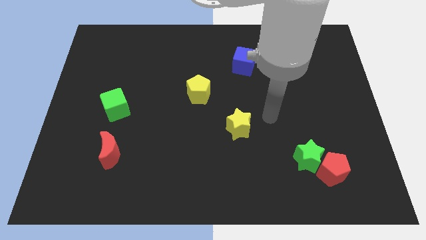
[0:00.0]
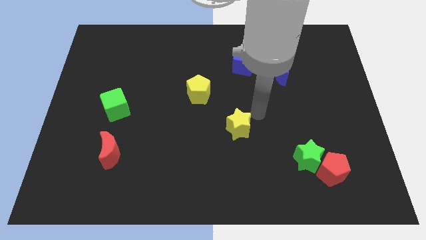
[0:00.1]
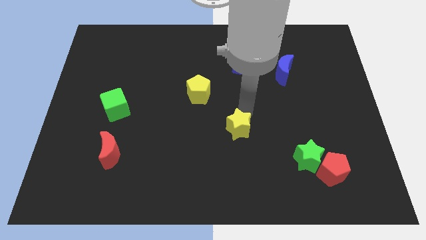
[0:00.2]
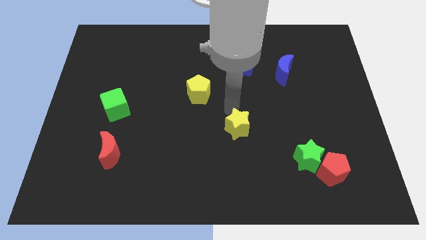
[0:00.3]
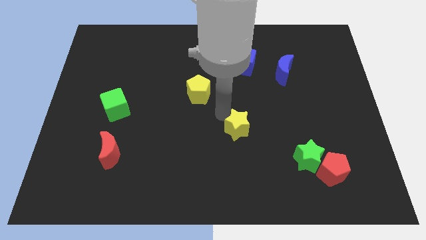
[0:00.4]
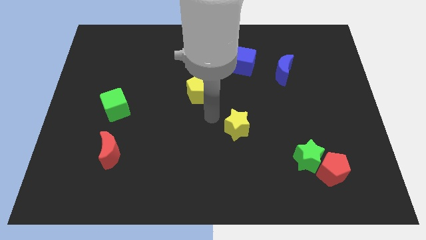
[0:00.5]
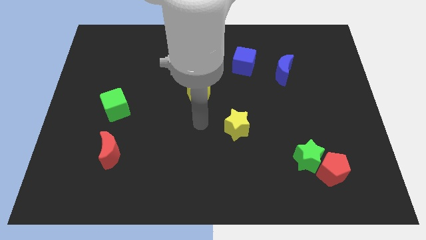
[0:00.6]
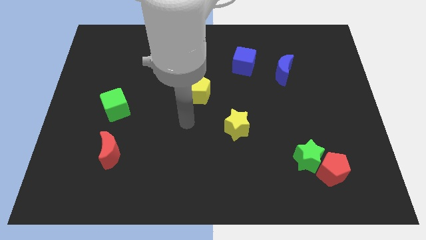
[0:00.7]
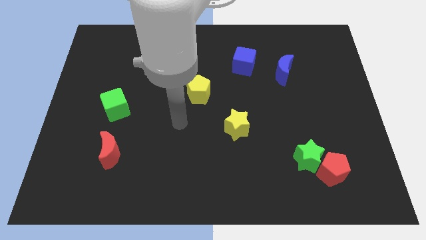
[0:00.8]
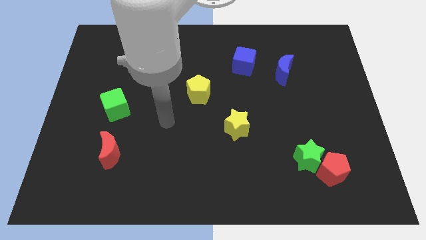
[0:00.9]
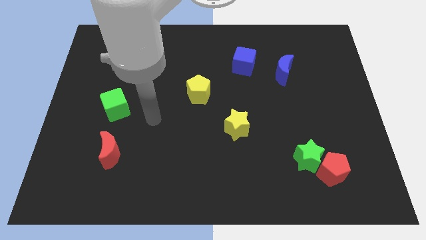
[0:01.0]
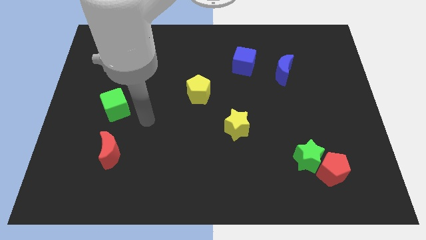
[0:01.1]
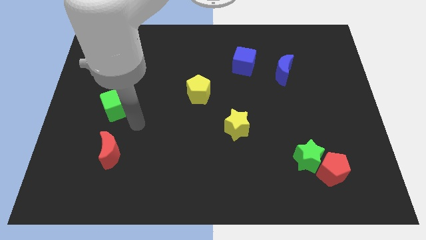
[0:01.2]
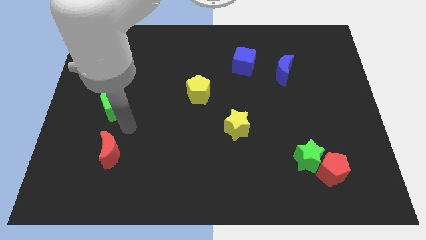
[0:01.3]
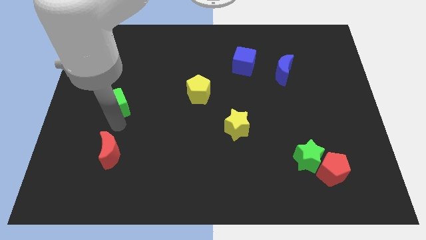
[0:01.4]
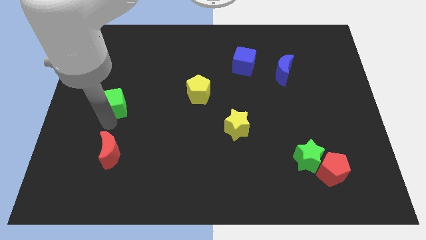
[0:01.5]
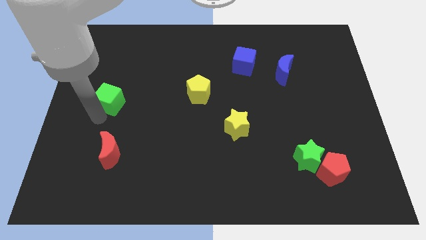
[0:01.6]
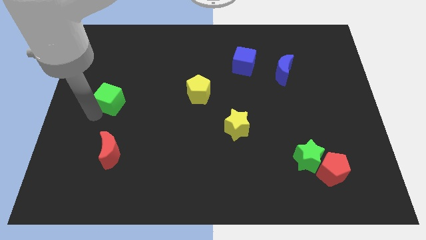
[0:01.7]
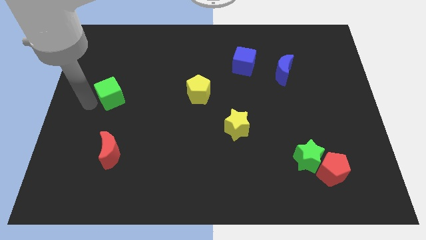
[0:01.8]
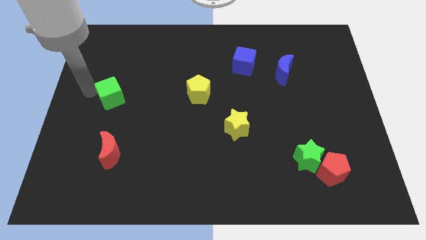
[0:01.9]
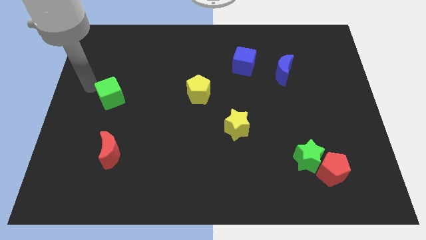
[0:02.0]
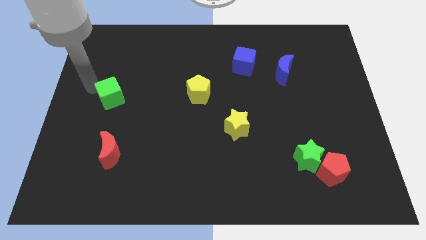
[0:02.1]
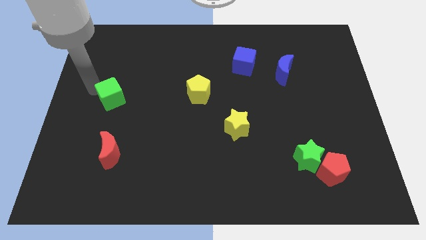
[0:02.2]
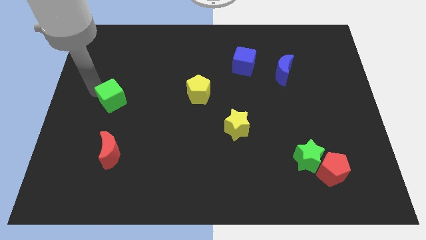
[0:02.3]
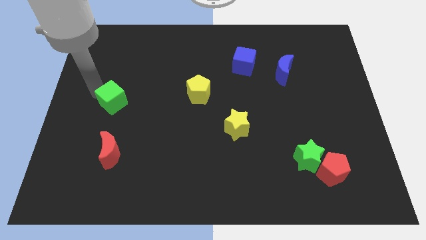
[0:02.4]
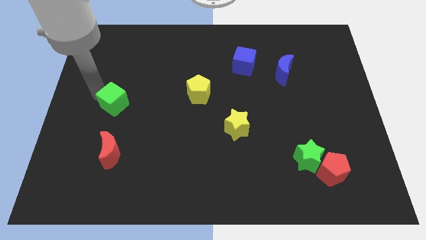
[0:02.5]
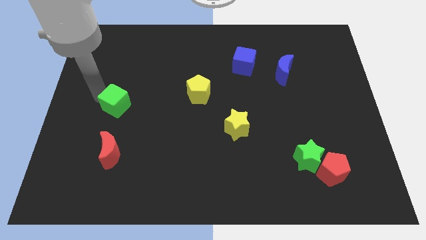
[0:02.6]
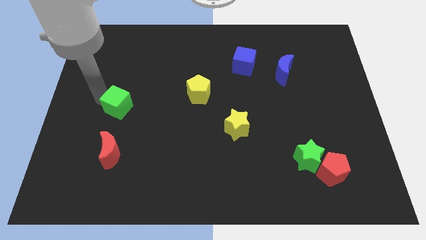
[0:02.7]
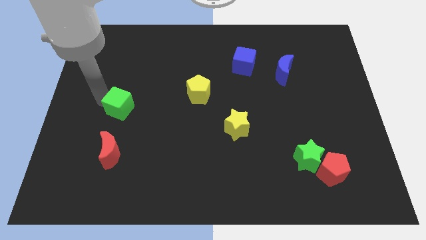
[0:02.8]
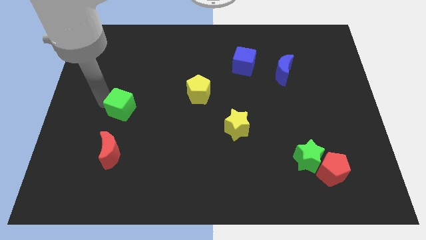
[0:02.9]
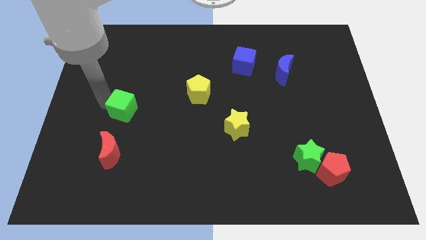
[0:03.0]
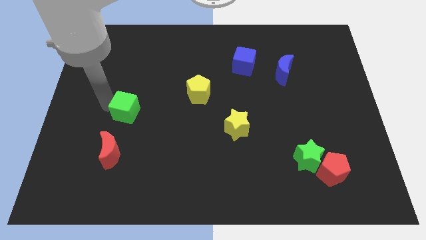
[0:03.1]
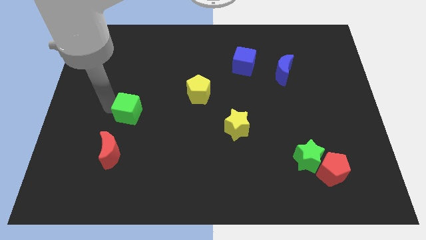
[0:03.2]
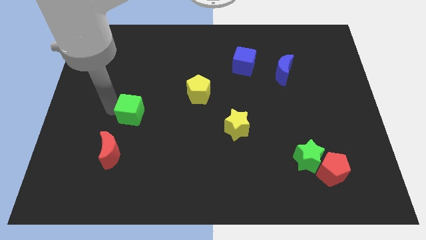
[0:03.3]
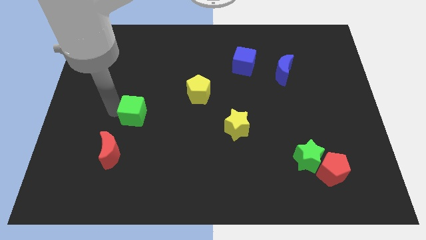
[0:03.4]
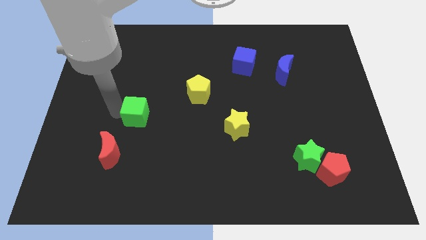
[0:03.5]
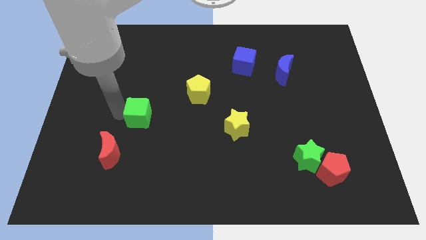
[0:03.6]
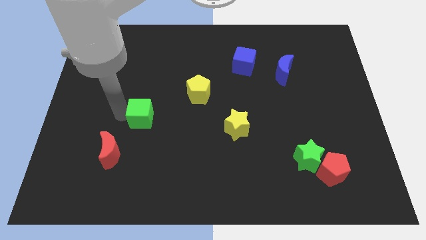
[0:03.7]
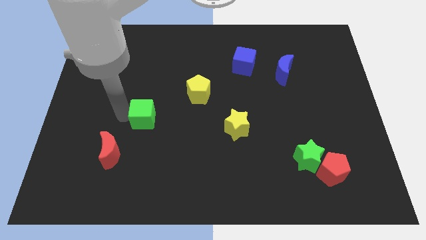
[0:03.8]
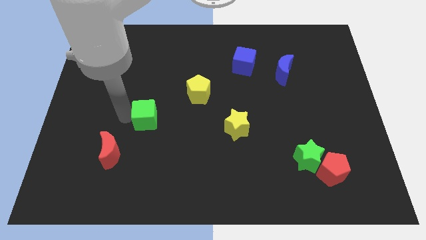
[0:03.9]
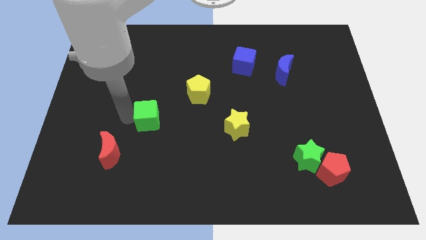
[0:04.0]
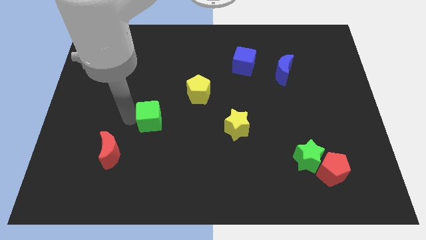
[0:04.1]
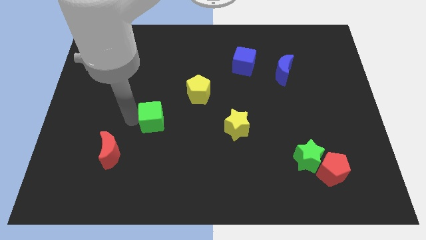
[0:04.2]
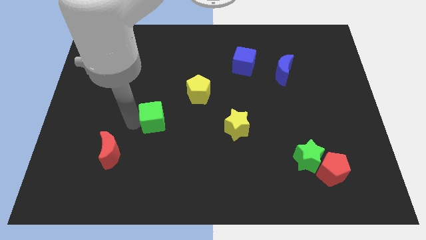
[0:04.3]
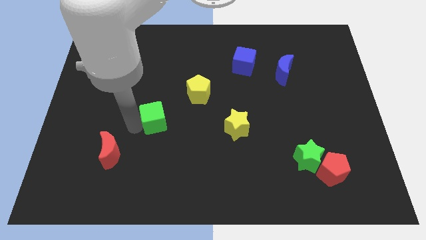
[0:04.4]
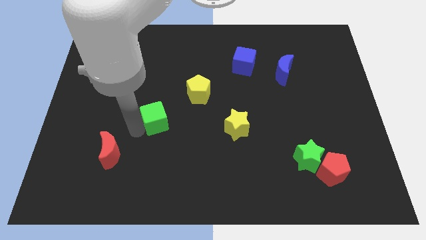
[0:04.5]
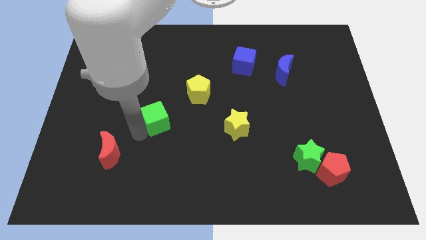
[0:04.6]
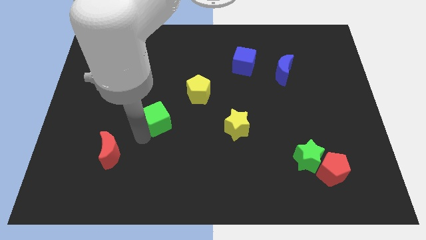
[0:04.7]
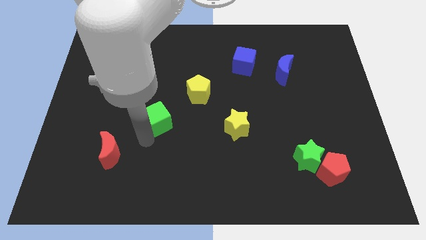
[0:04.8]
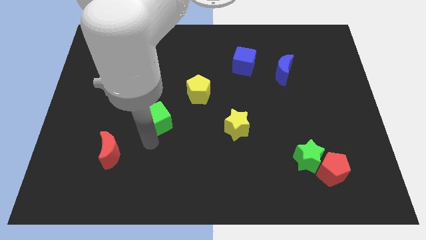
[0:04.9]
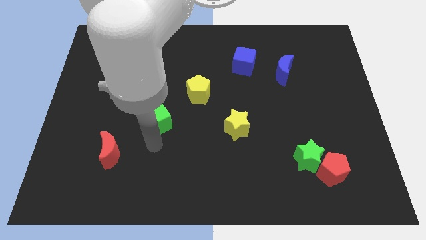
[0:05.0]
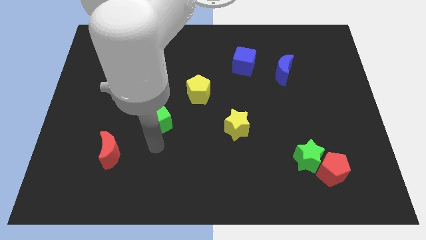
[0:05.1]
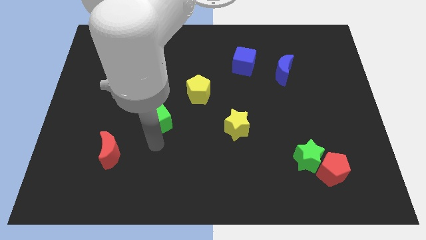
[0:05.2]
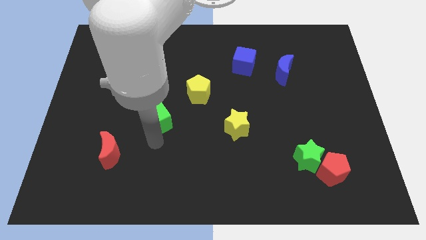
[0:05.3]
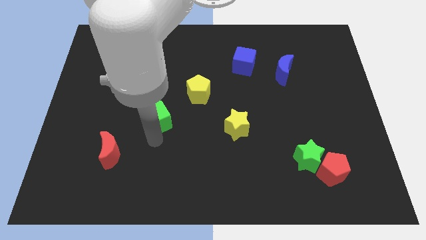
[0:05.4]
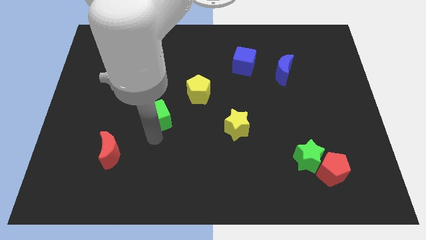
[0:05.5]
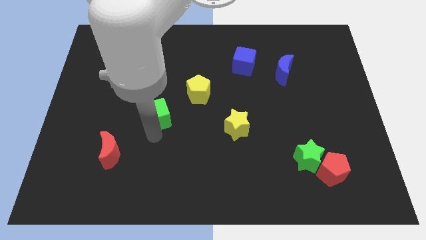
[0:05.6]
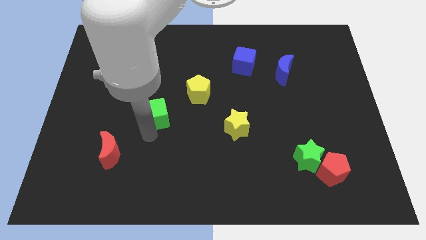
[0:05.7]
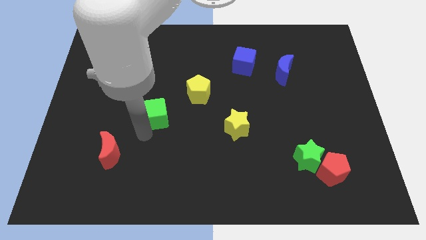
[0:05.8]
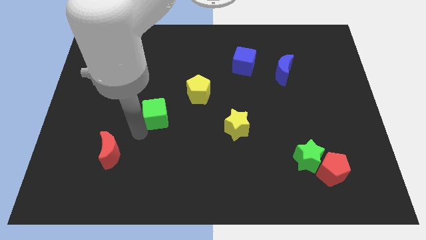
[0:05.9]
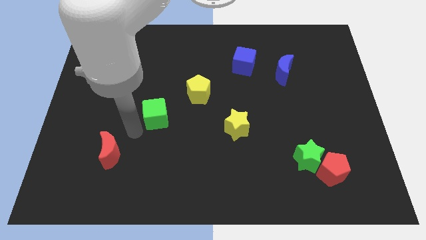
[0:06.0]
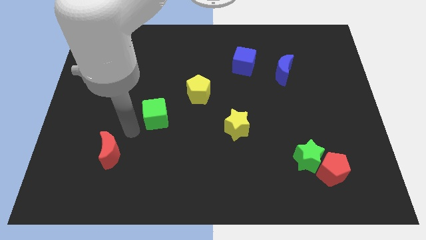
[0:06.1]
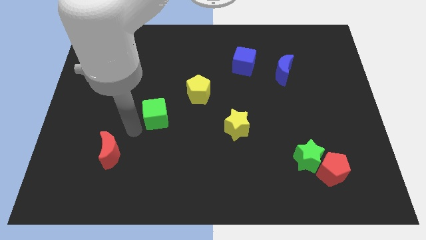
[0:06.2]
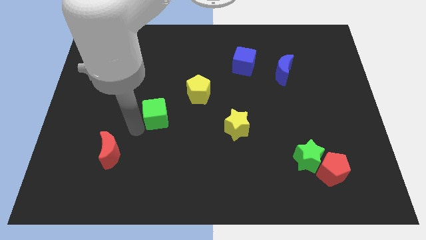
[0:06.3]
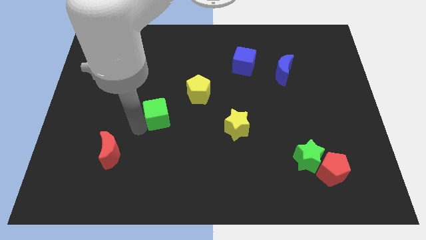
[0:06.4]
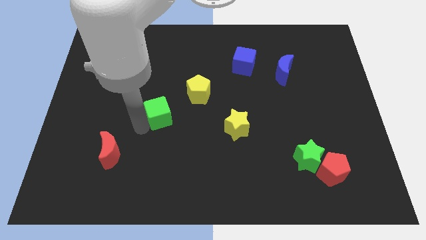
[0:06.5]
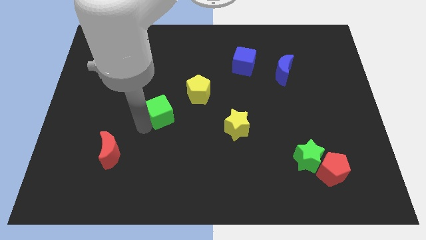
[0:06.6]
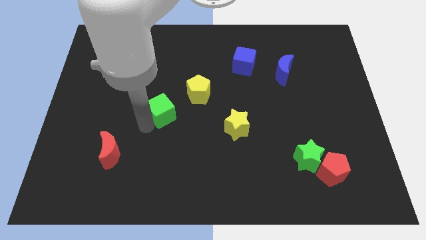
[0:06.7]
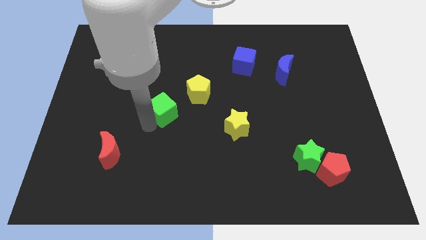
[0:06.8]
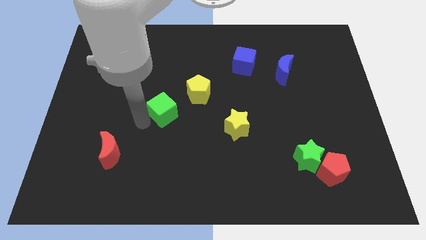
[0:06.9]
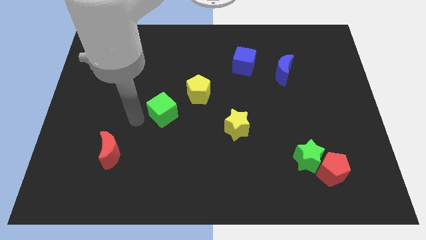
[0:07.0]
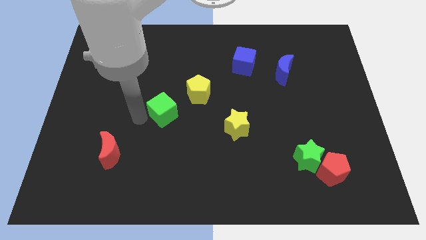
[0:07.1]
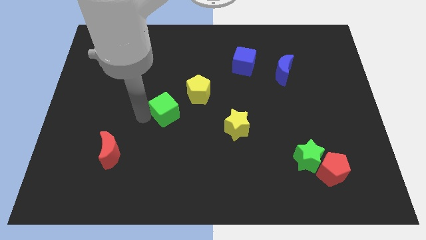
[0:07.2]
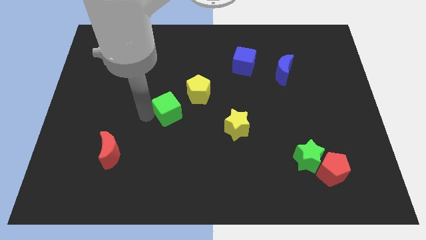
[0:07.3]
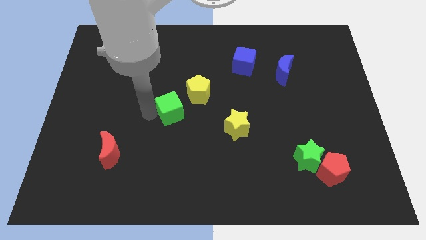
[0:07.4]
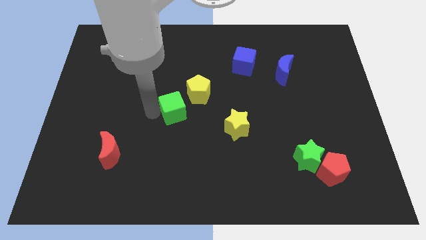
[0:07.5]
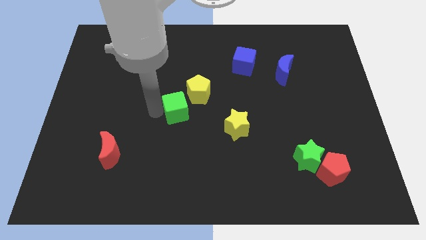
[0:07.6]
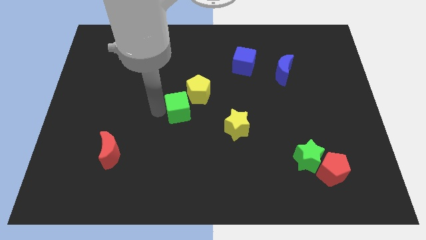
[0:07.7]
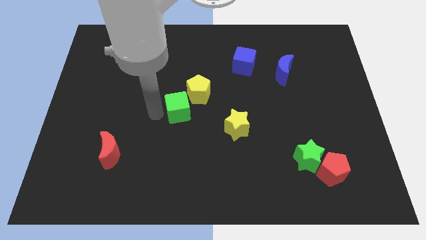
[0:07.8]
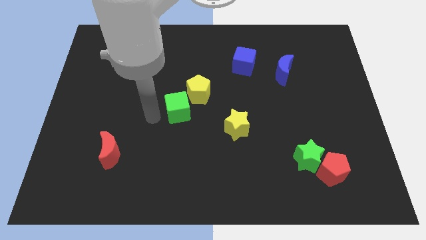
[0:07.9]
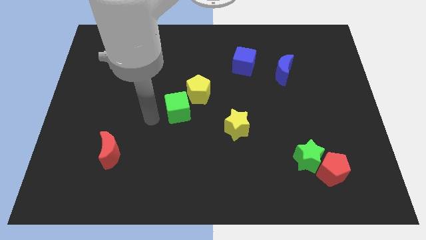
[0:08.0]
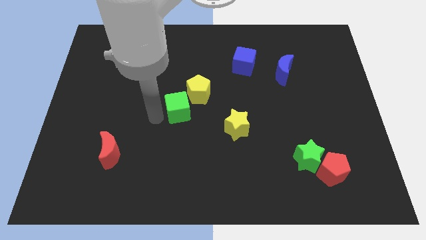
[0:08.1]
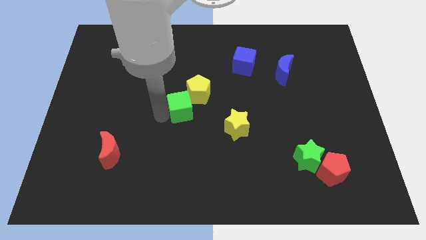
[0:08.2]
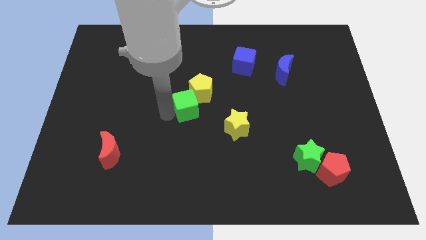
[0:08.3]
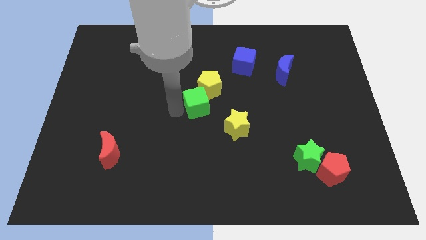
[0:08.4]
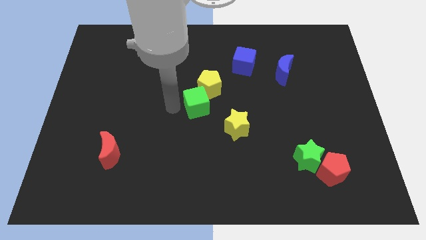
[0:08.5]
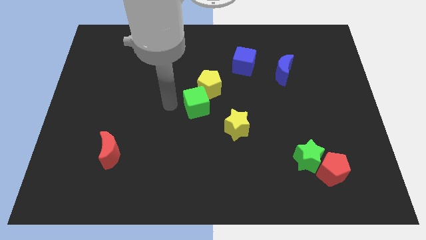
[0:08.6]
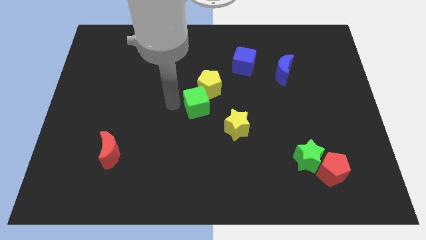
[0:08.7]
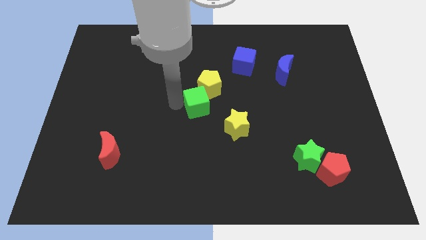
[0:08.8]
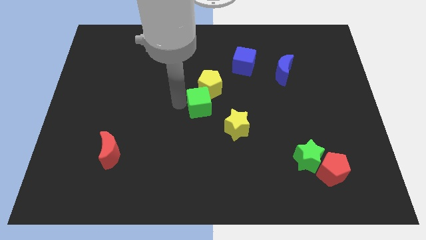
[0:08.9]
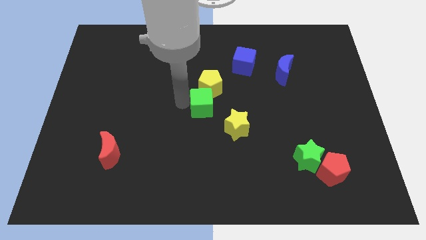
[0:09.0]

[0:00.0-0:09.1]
slide the green cube to the right
